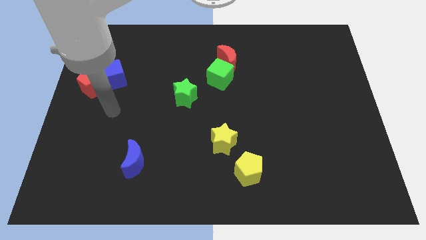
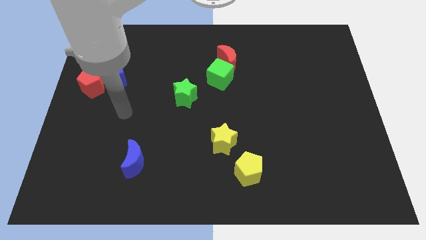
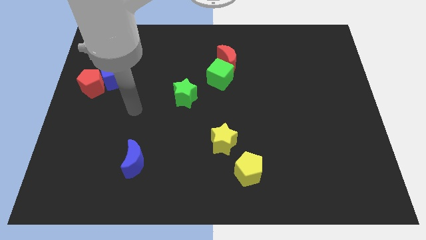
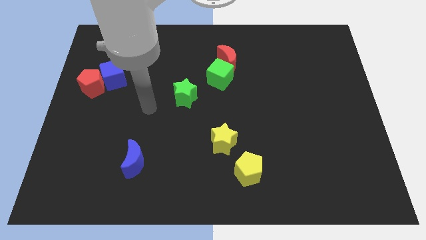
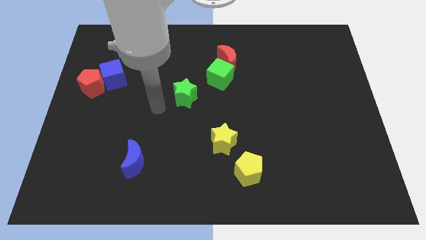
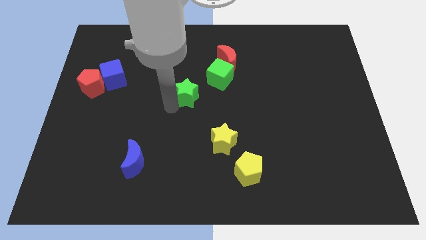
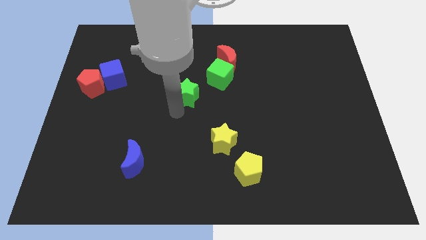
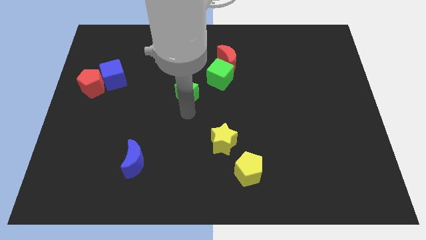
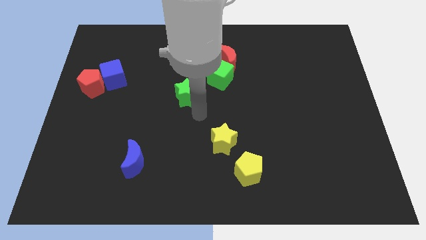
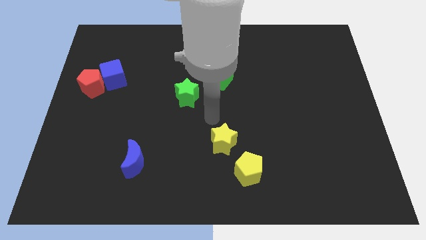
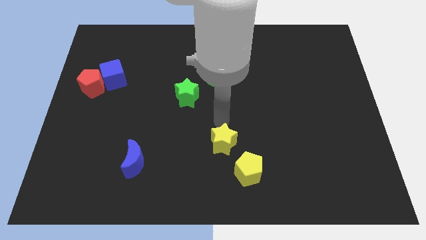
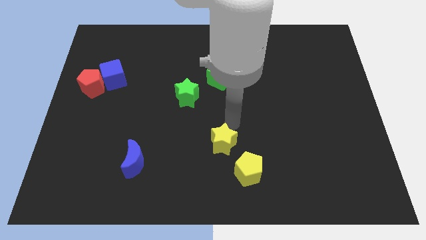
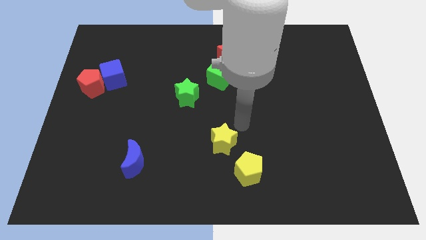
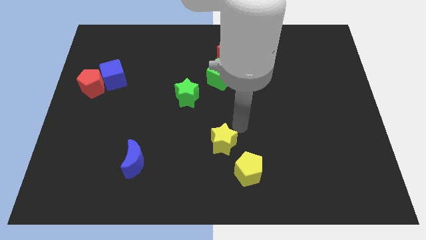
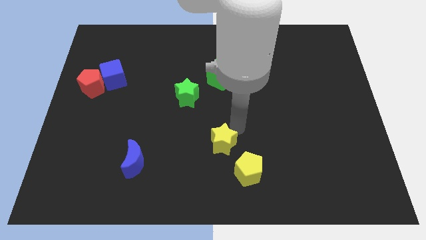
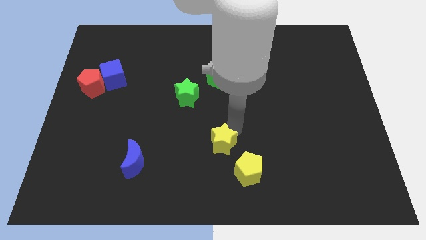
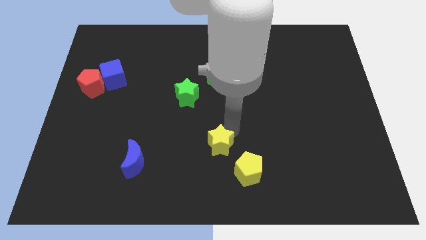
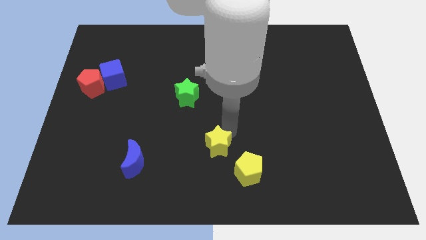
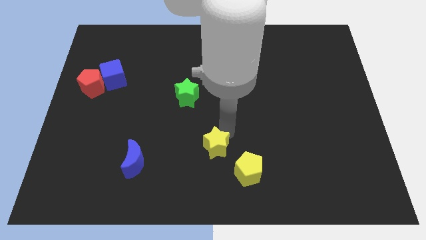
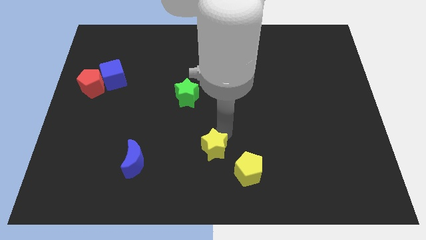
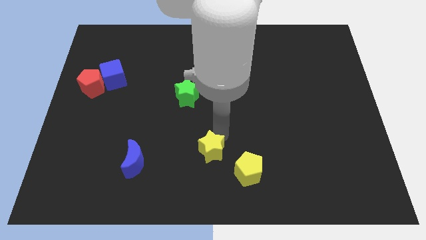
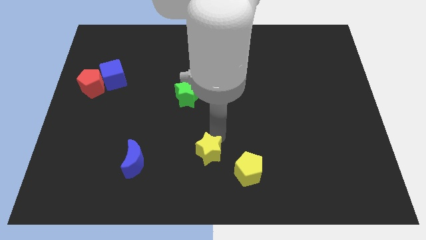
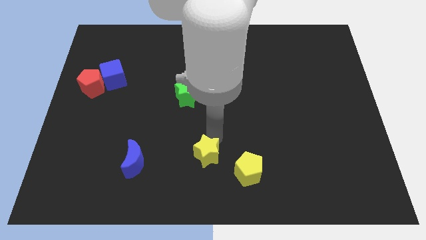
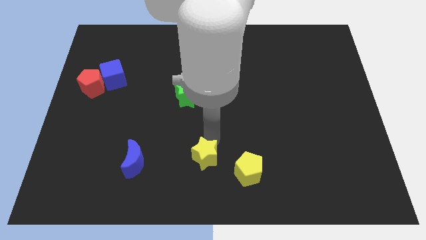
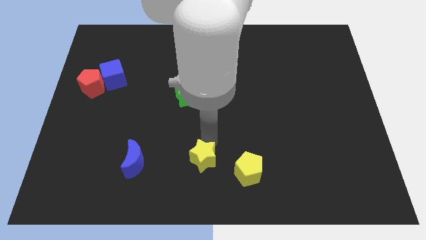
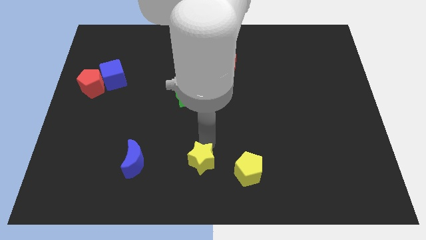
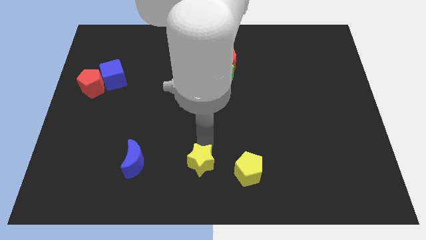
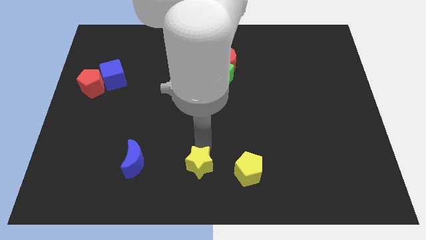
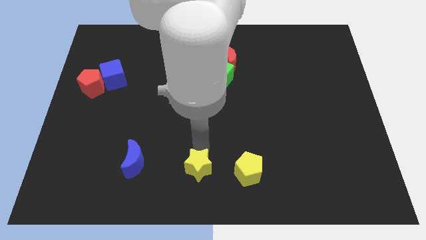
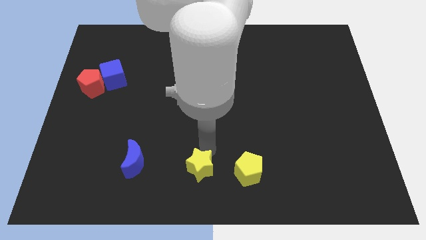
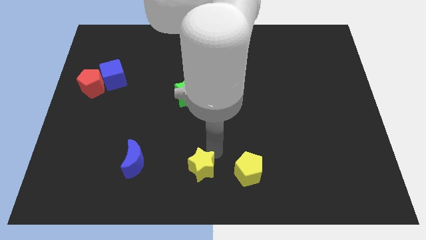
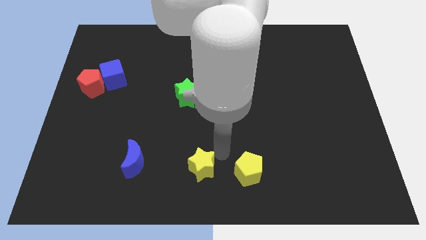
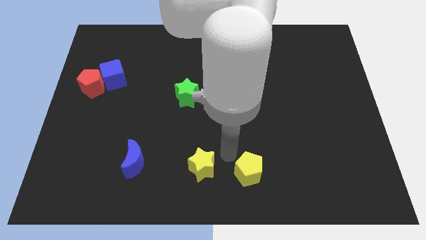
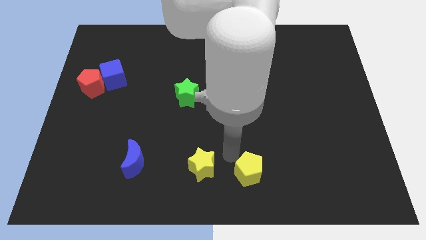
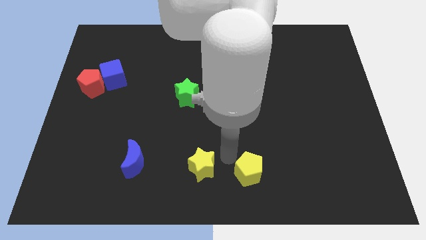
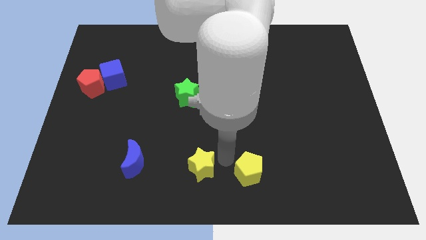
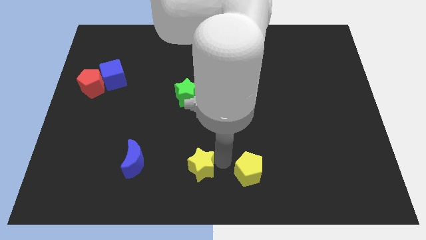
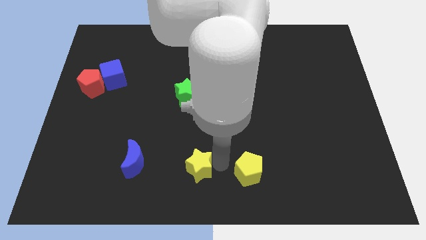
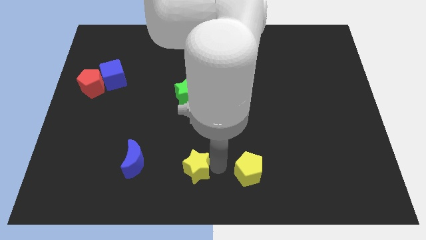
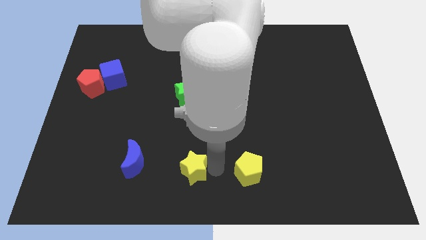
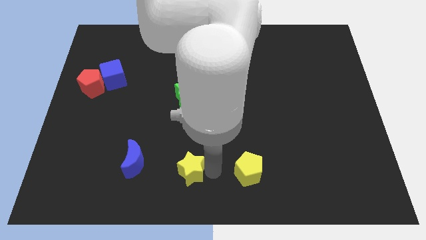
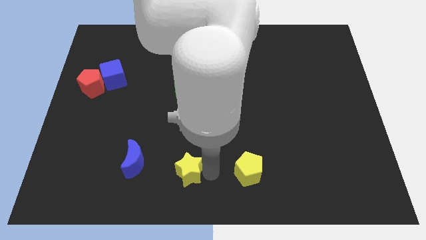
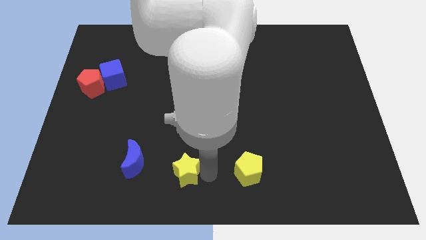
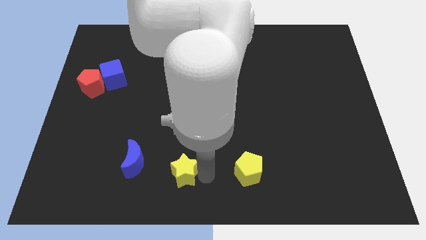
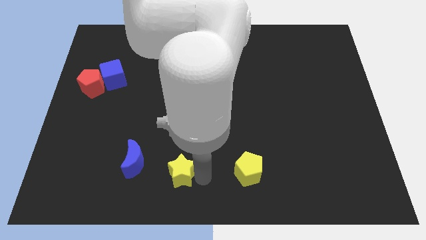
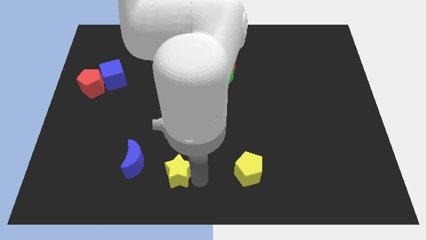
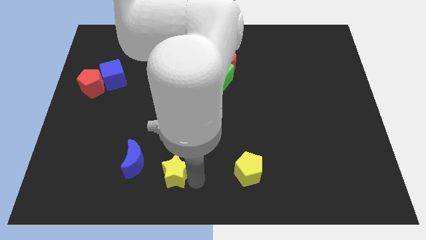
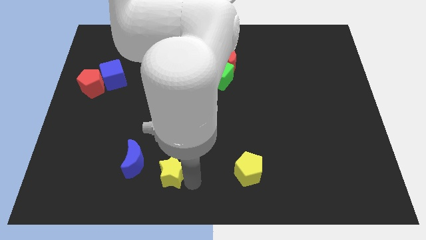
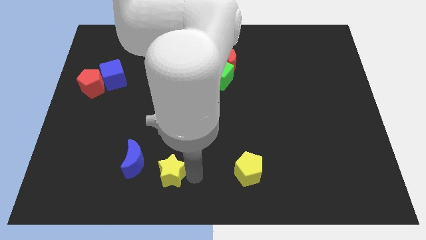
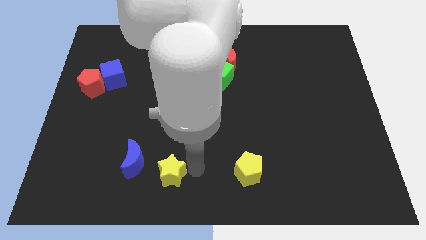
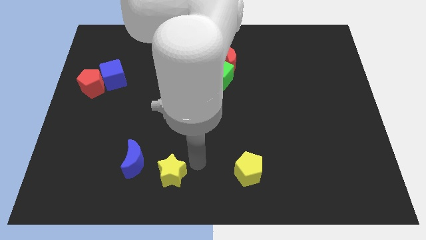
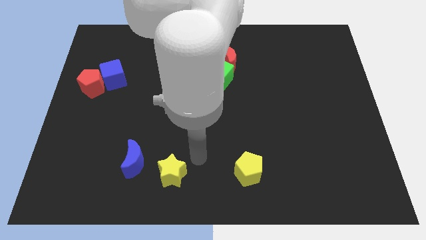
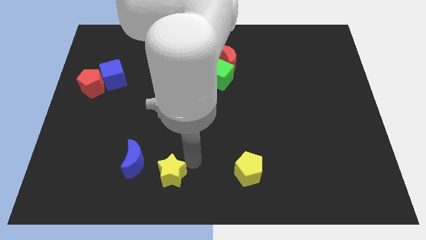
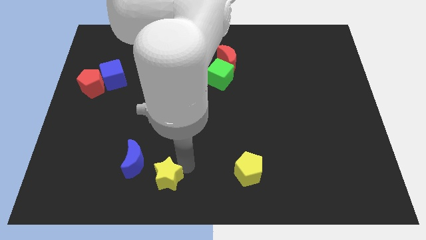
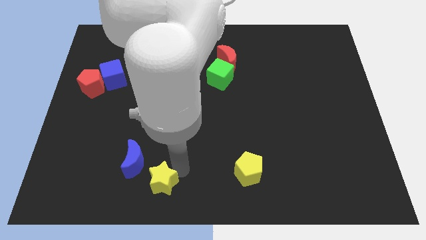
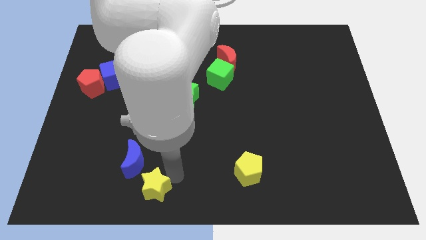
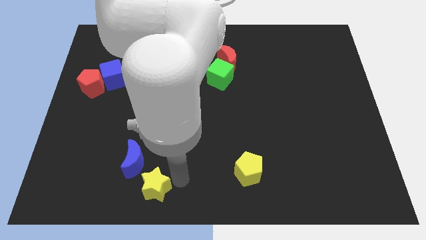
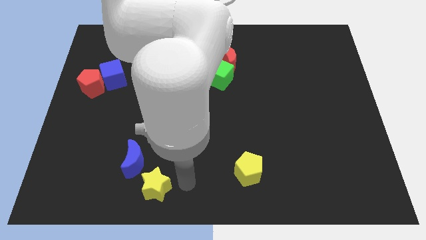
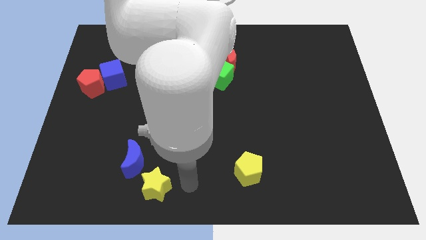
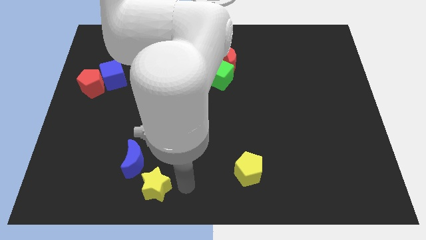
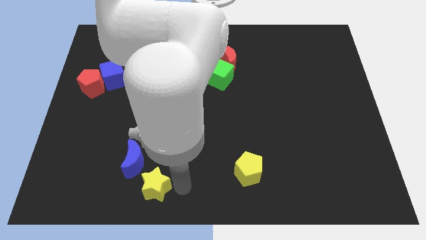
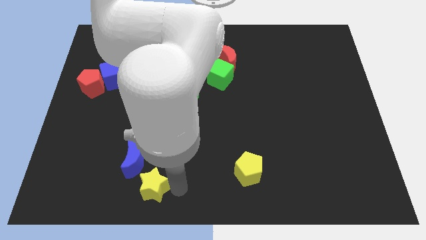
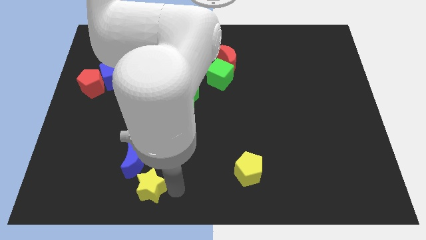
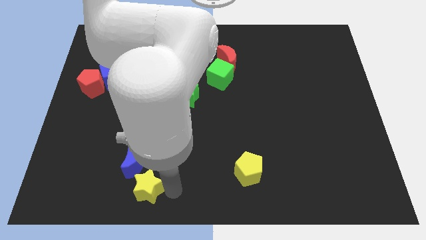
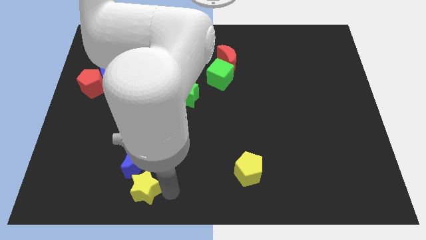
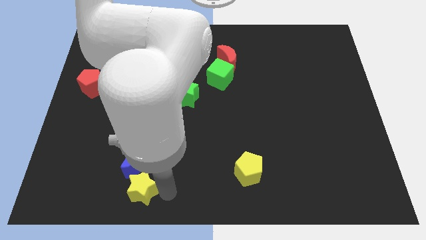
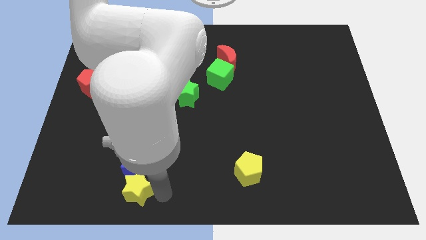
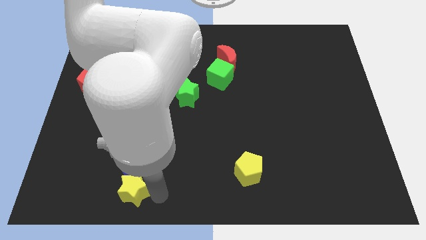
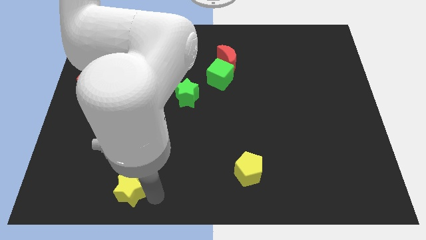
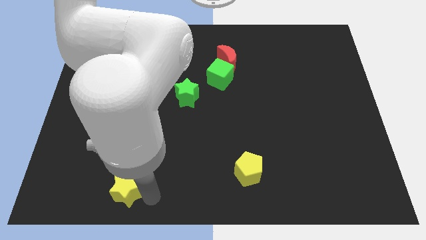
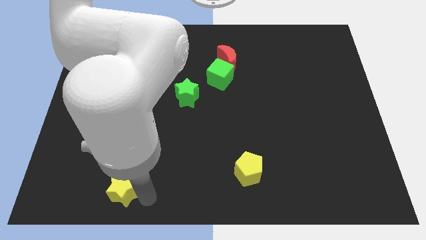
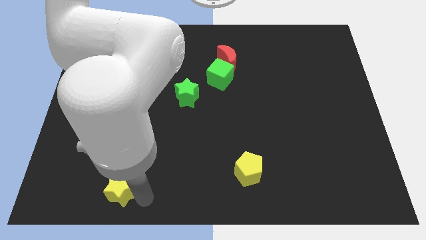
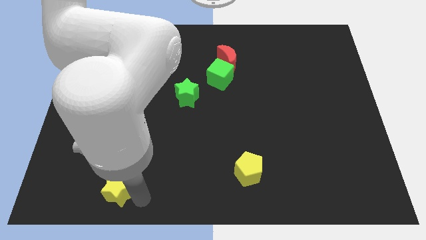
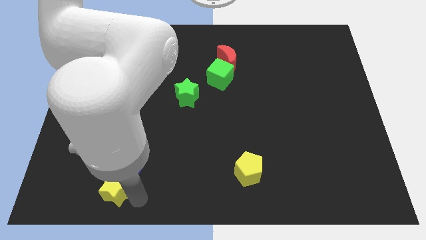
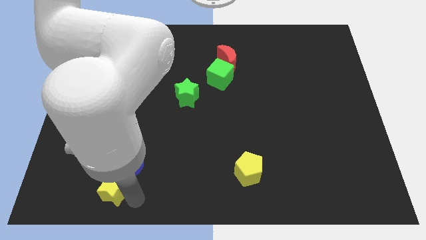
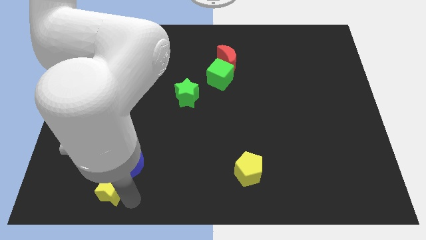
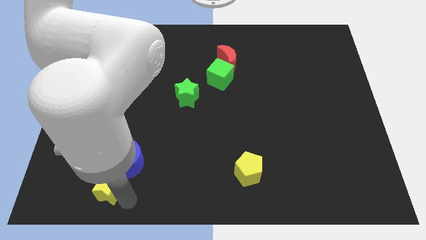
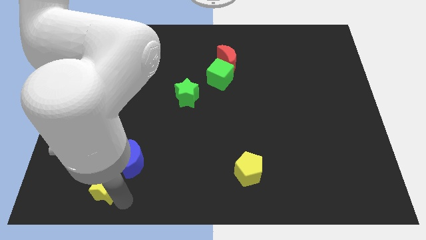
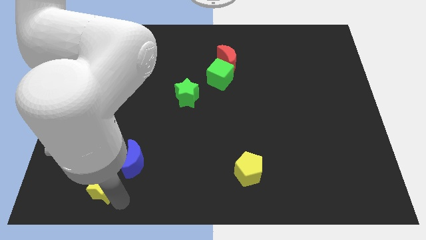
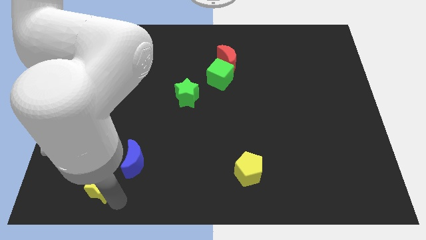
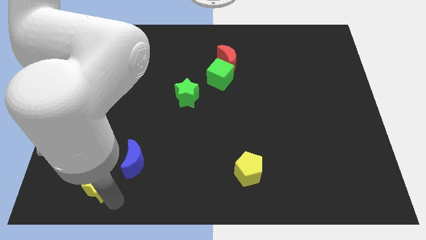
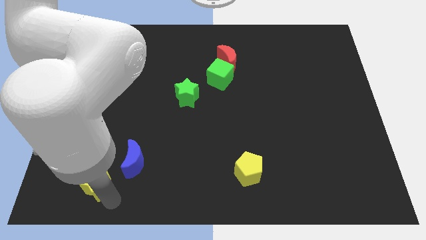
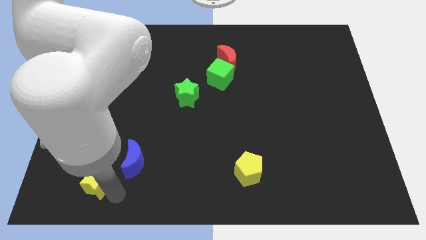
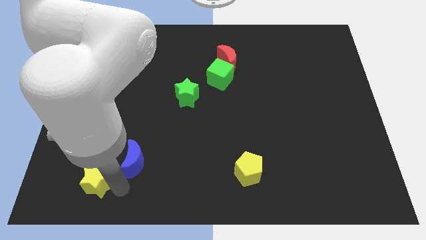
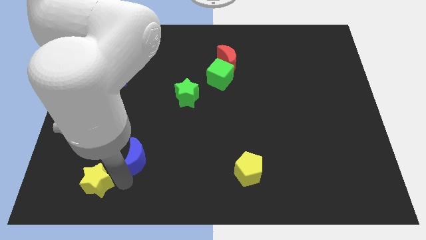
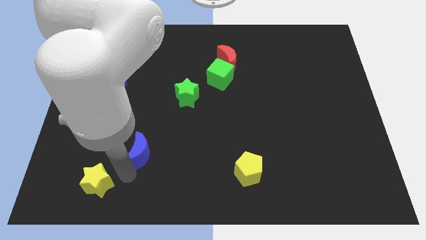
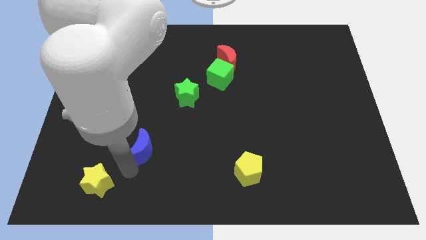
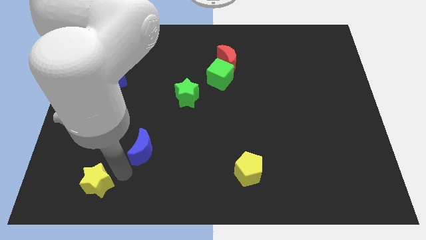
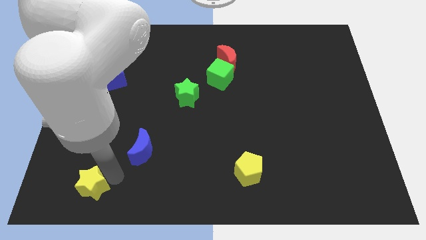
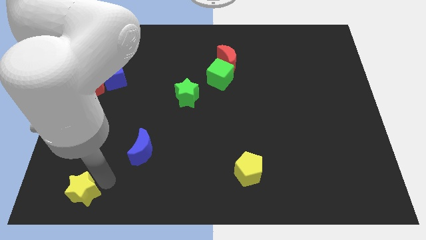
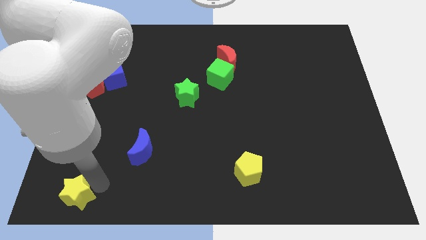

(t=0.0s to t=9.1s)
push the yellow star to the bottom left of the board
